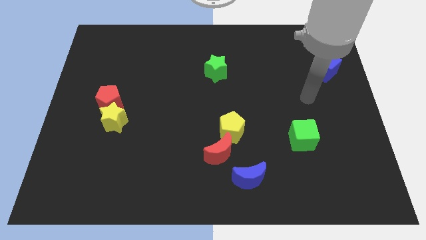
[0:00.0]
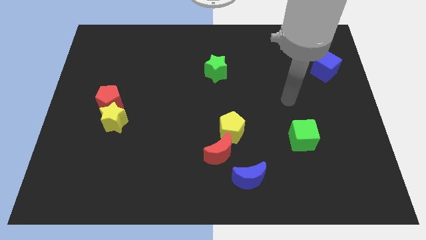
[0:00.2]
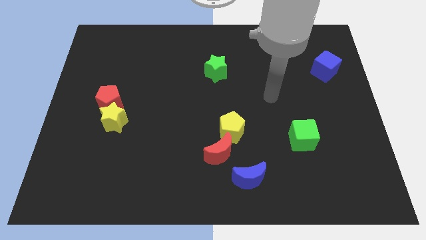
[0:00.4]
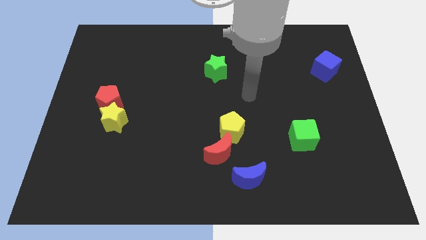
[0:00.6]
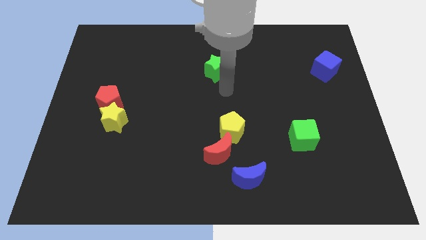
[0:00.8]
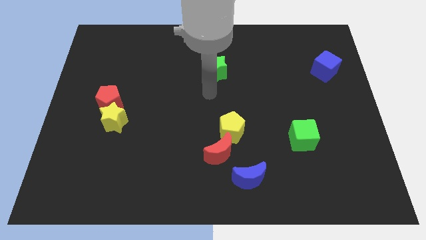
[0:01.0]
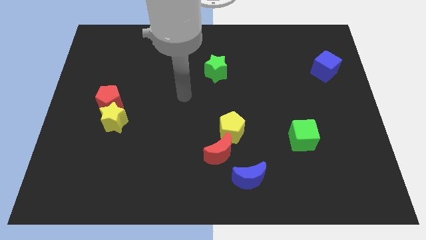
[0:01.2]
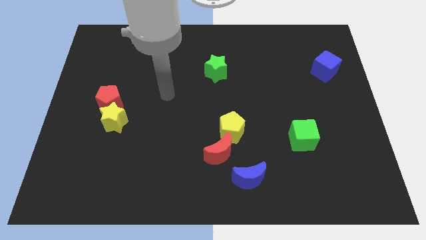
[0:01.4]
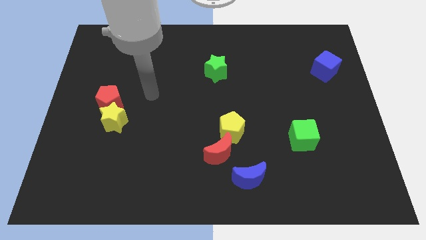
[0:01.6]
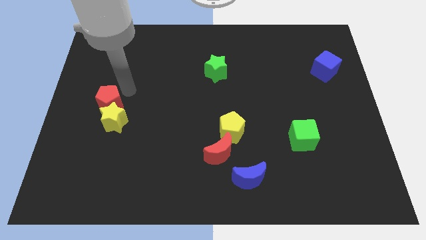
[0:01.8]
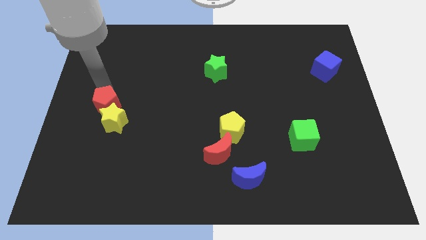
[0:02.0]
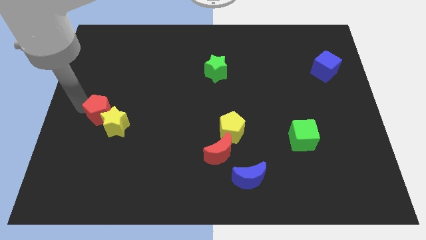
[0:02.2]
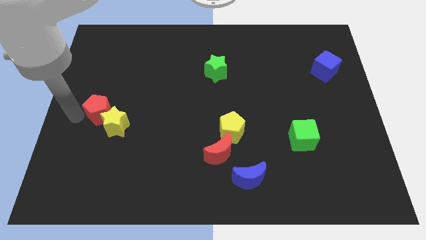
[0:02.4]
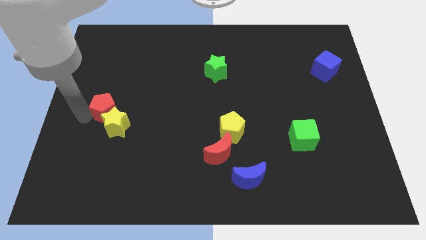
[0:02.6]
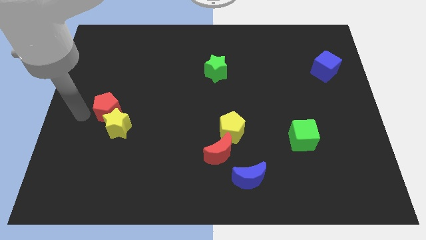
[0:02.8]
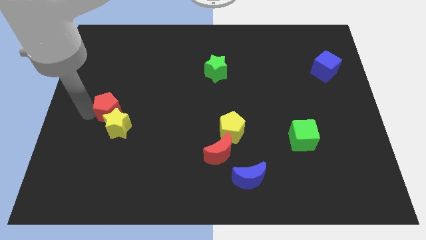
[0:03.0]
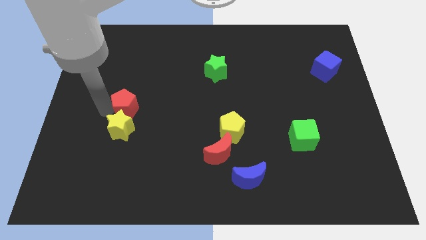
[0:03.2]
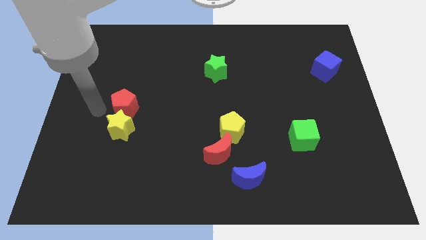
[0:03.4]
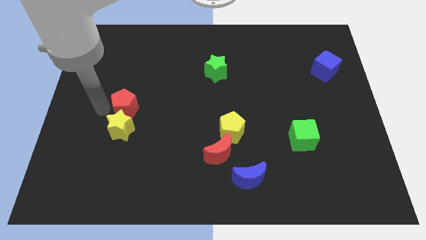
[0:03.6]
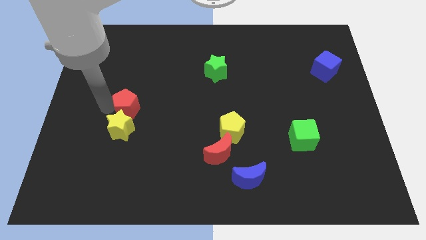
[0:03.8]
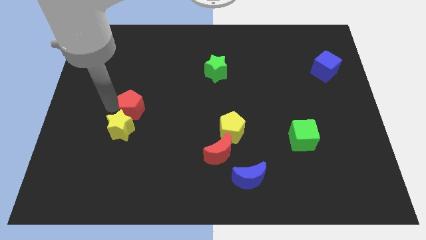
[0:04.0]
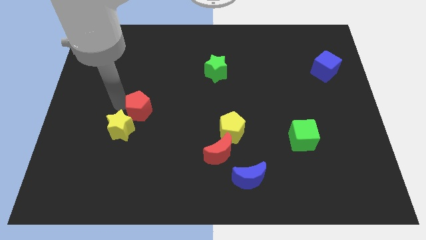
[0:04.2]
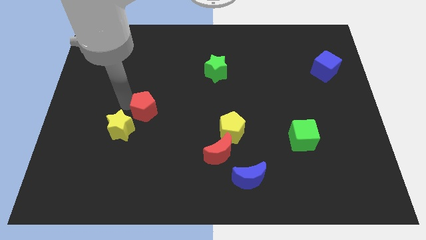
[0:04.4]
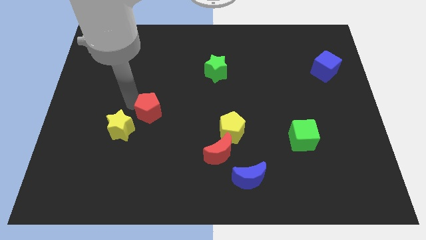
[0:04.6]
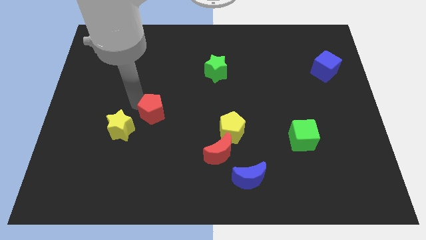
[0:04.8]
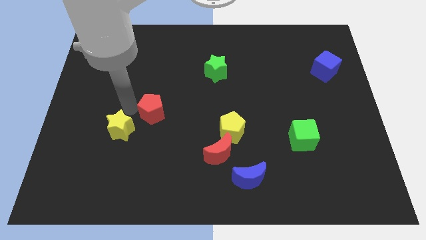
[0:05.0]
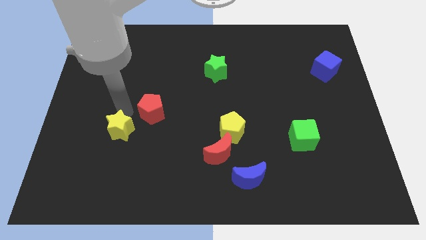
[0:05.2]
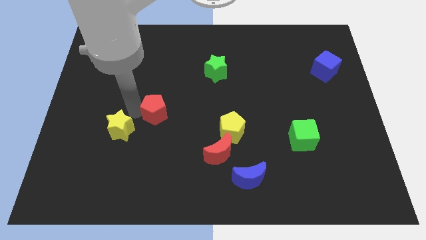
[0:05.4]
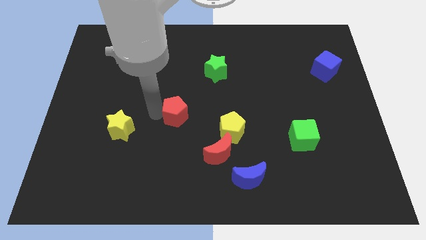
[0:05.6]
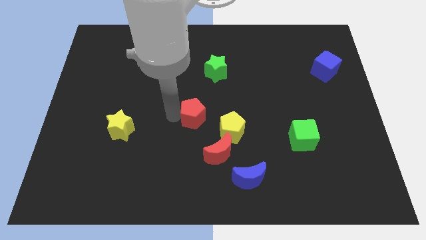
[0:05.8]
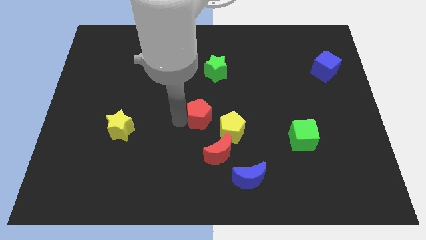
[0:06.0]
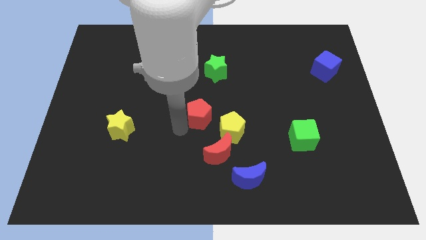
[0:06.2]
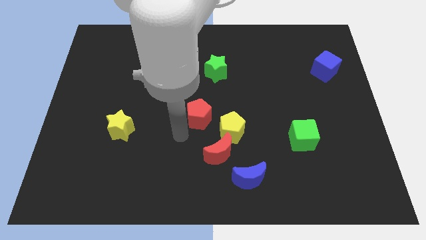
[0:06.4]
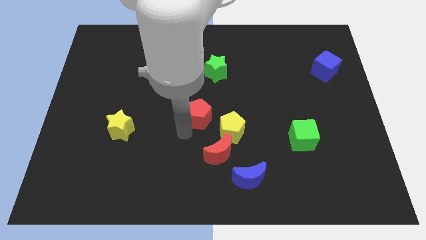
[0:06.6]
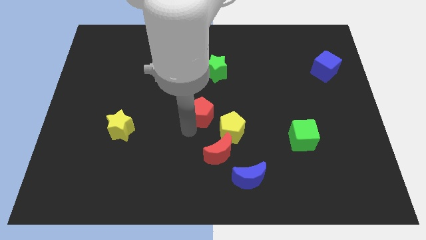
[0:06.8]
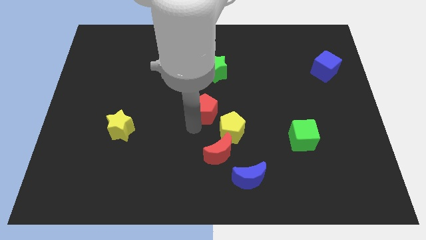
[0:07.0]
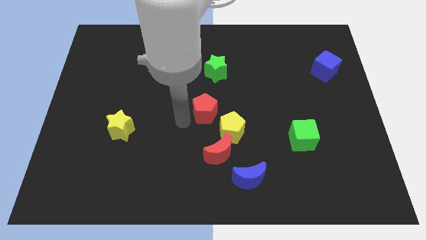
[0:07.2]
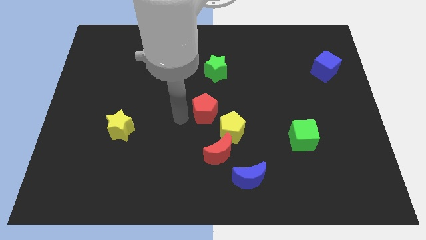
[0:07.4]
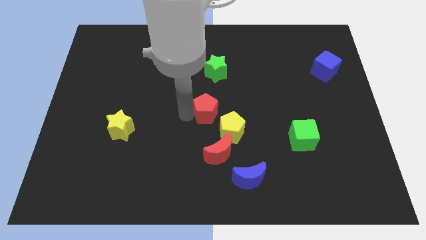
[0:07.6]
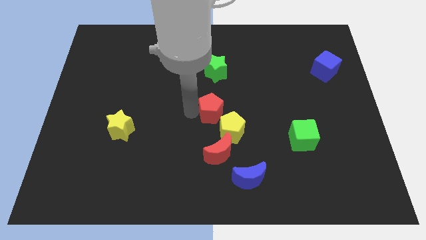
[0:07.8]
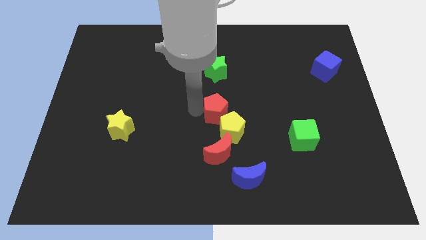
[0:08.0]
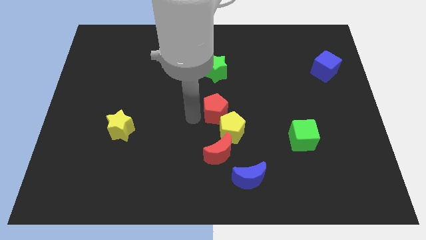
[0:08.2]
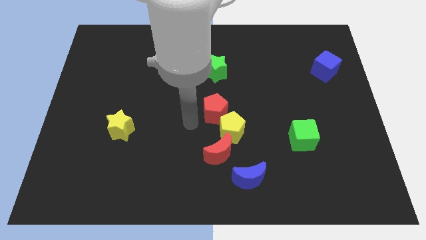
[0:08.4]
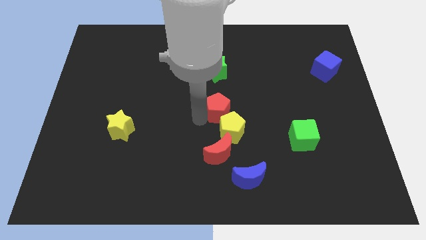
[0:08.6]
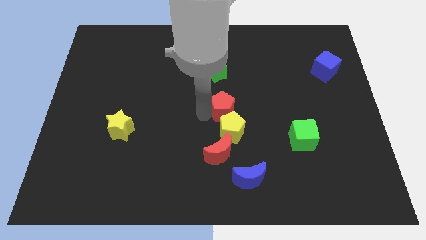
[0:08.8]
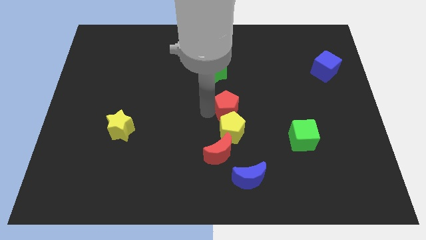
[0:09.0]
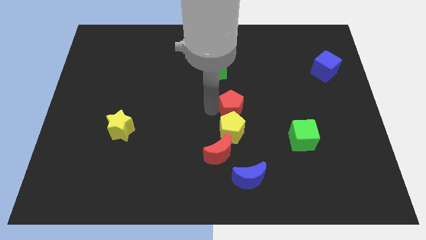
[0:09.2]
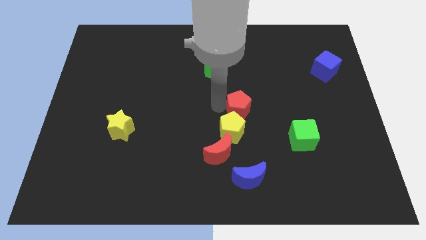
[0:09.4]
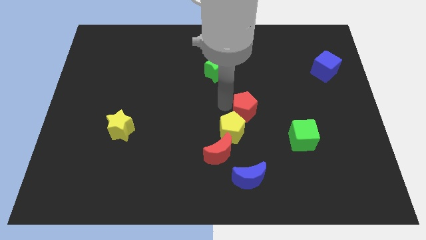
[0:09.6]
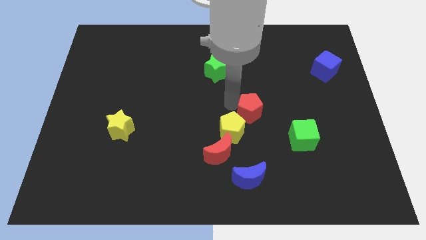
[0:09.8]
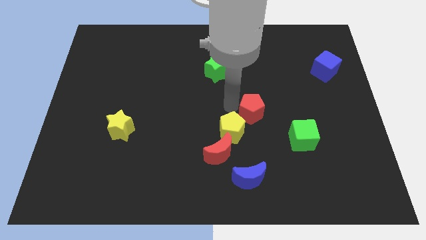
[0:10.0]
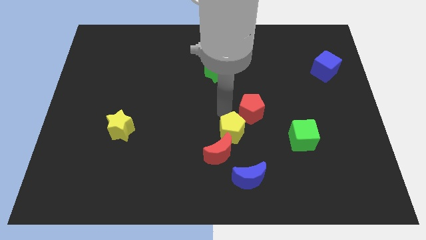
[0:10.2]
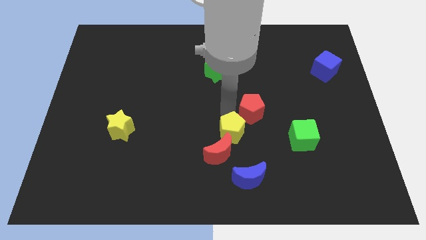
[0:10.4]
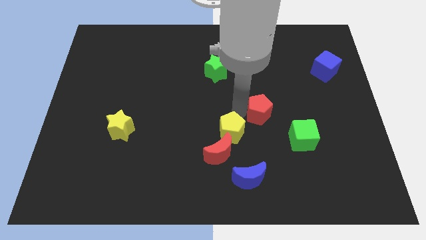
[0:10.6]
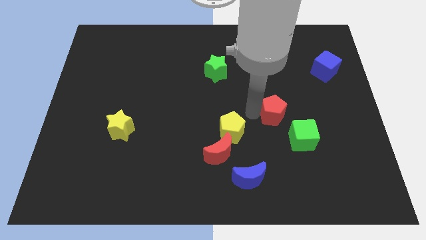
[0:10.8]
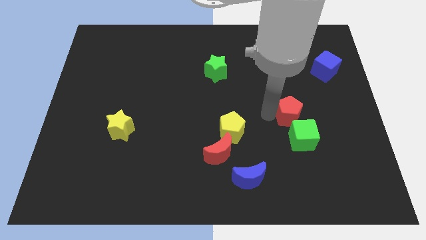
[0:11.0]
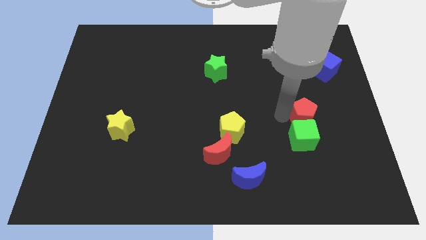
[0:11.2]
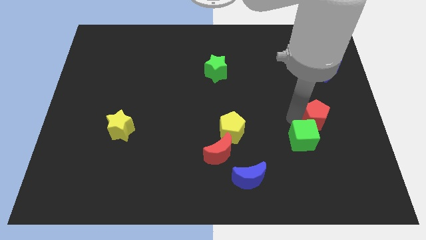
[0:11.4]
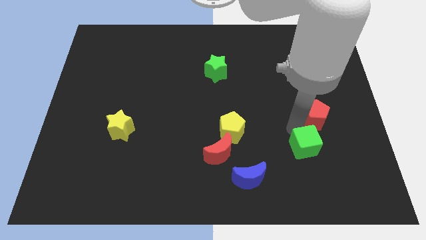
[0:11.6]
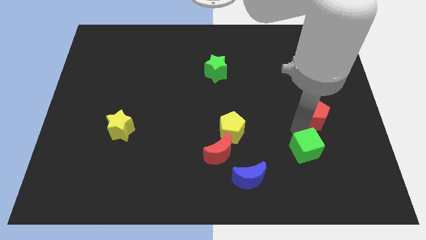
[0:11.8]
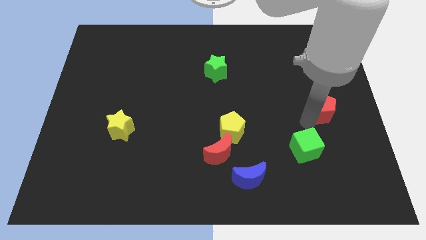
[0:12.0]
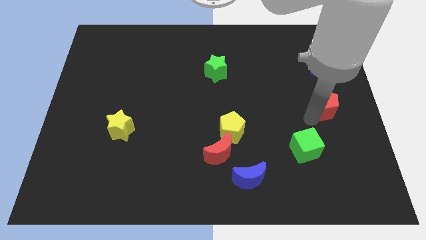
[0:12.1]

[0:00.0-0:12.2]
put the red pentagon to the right side
